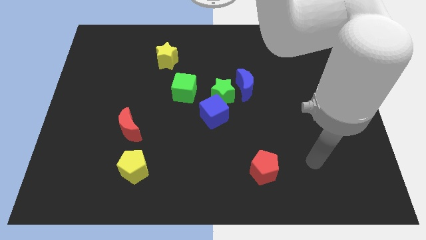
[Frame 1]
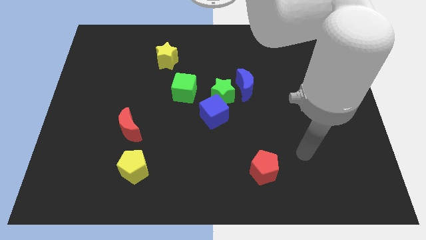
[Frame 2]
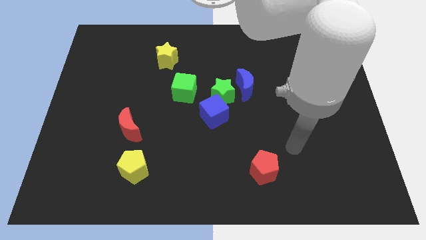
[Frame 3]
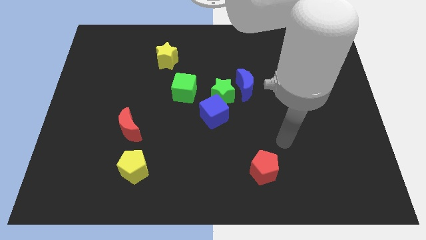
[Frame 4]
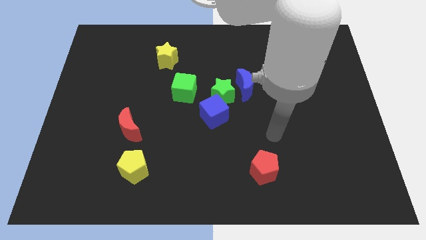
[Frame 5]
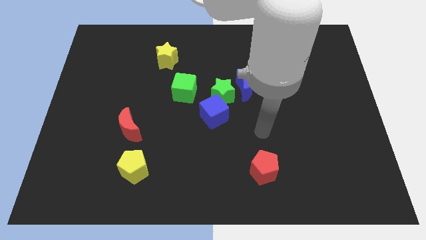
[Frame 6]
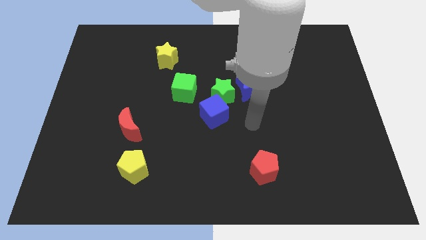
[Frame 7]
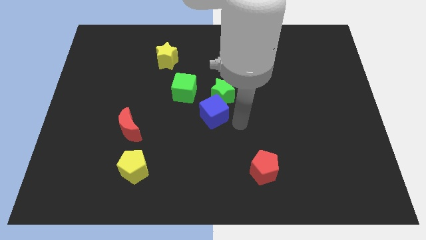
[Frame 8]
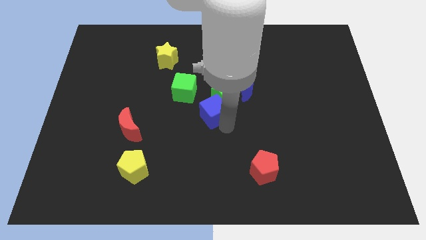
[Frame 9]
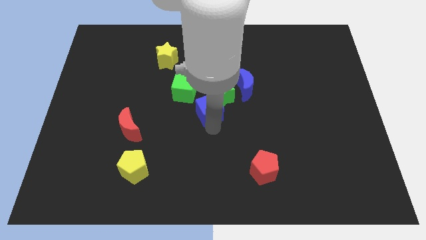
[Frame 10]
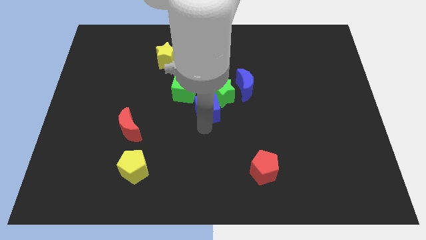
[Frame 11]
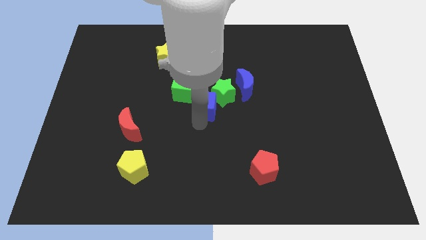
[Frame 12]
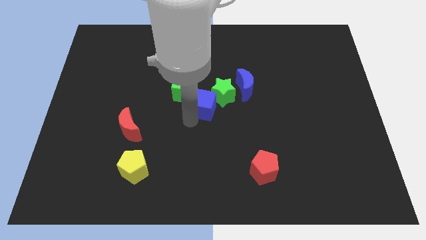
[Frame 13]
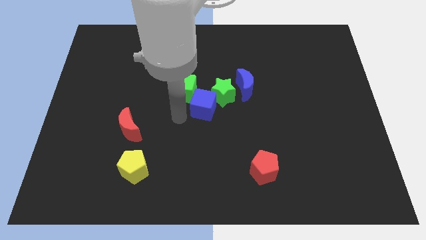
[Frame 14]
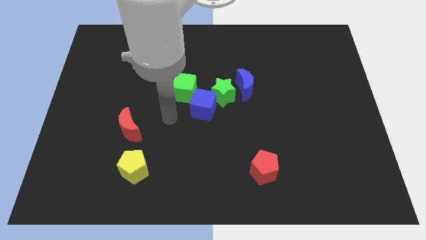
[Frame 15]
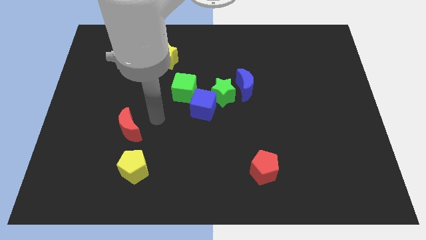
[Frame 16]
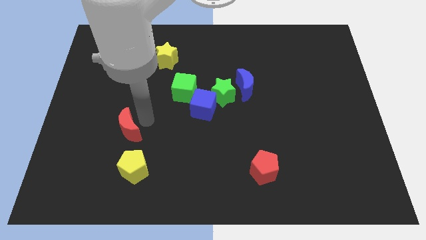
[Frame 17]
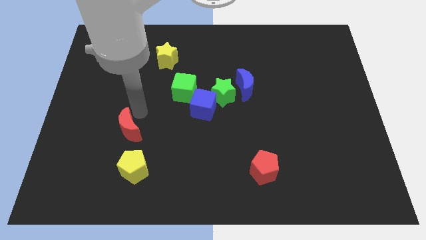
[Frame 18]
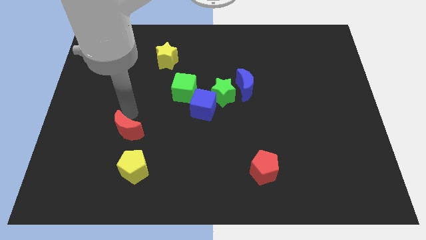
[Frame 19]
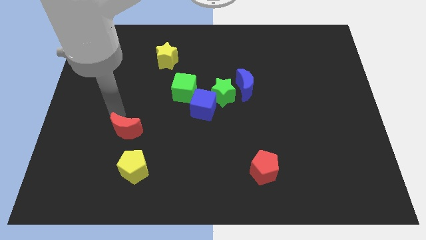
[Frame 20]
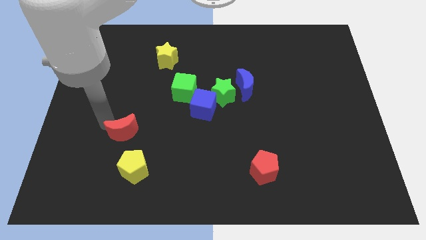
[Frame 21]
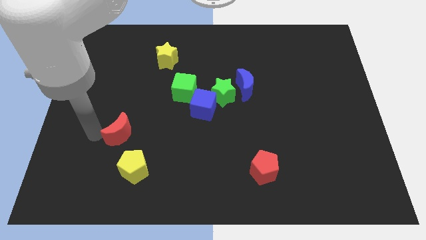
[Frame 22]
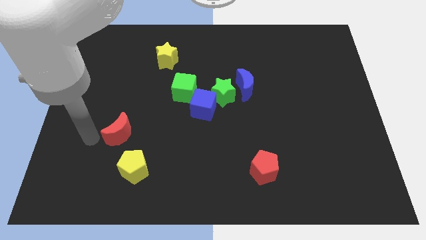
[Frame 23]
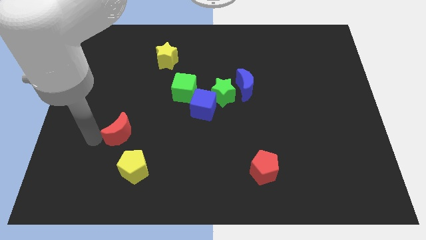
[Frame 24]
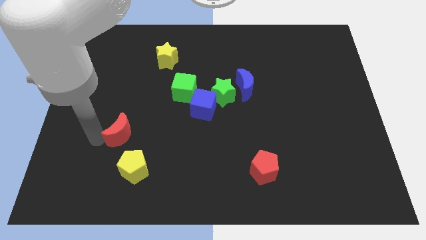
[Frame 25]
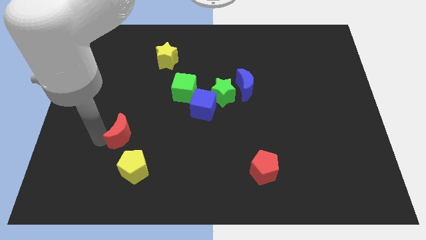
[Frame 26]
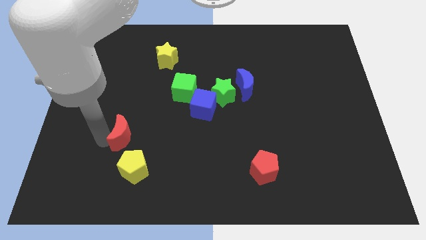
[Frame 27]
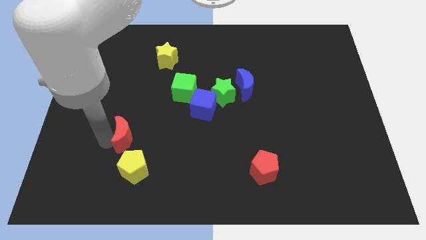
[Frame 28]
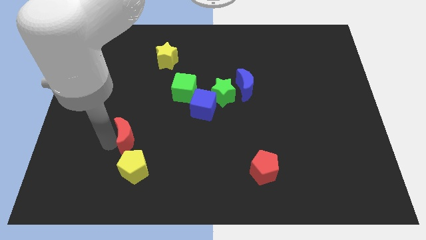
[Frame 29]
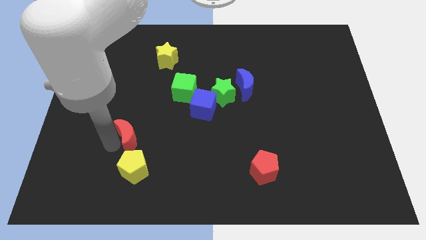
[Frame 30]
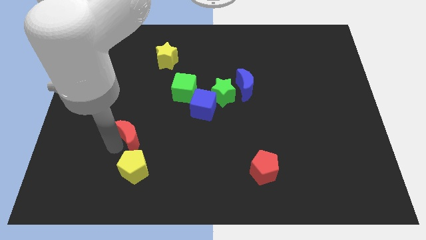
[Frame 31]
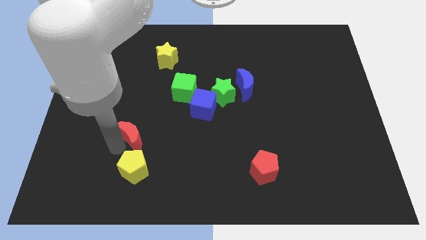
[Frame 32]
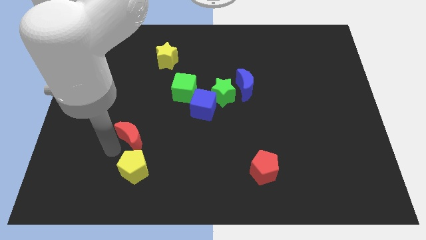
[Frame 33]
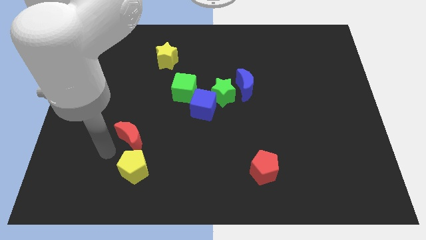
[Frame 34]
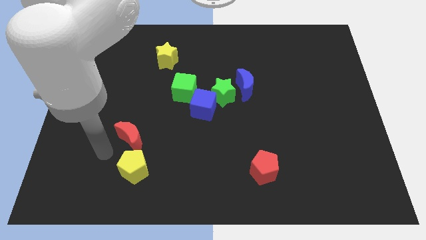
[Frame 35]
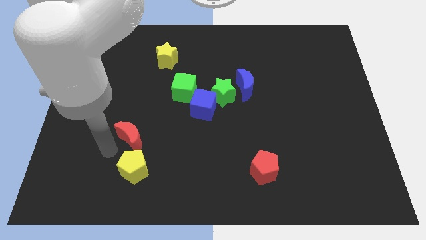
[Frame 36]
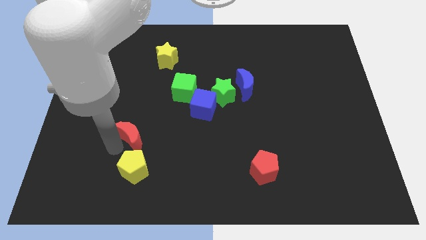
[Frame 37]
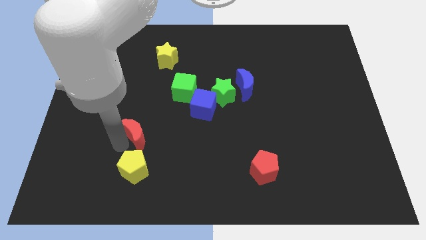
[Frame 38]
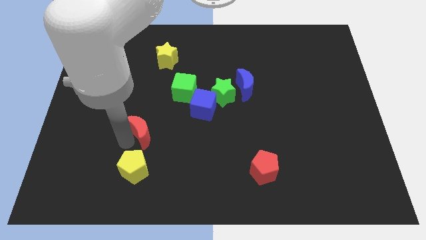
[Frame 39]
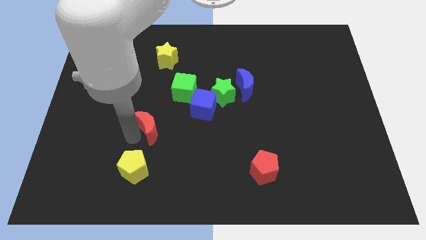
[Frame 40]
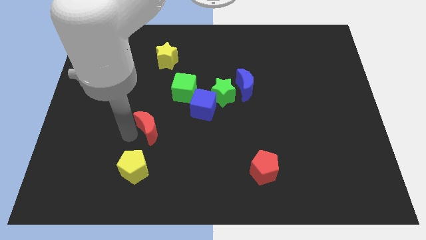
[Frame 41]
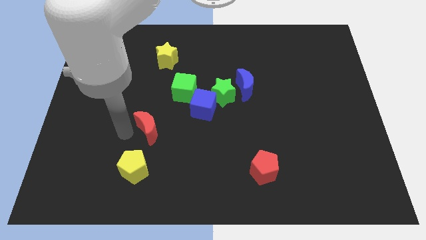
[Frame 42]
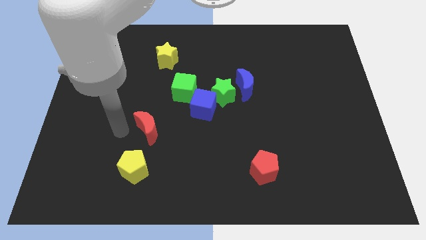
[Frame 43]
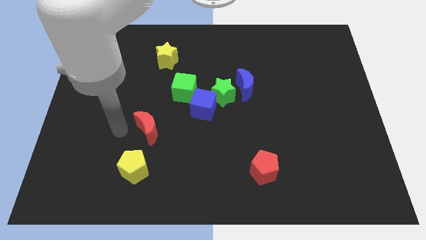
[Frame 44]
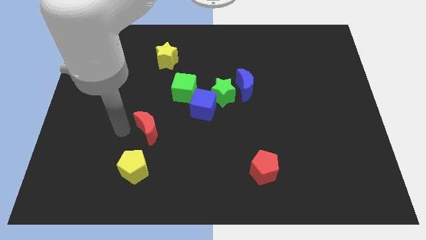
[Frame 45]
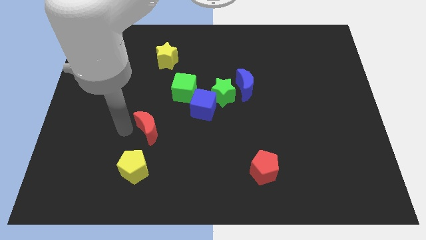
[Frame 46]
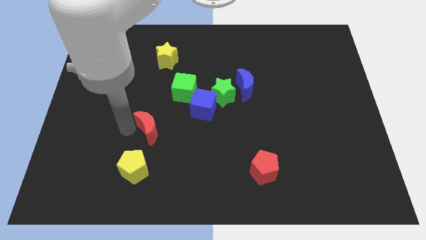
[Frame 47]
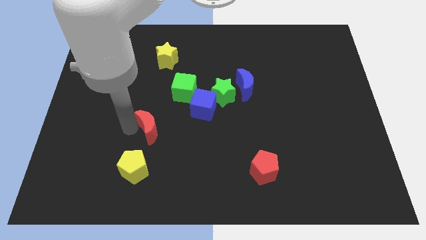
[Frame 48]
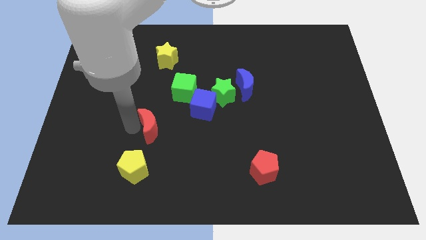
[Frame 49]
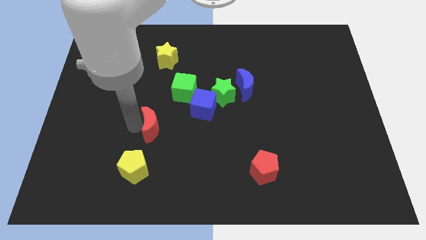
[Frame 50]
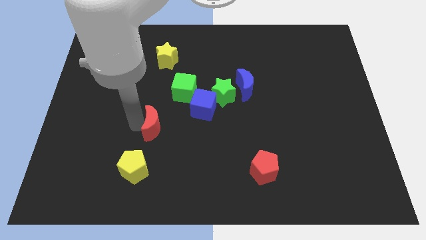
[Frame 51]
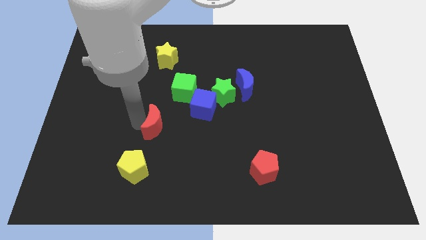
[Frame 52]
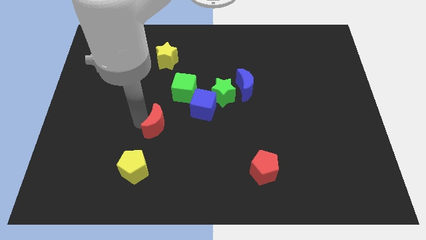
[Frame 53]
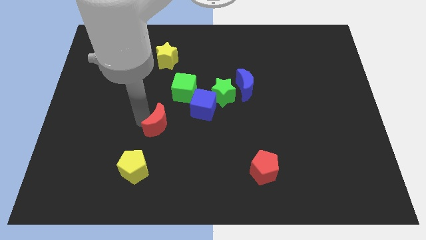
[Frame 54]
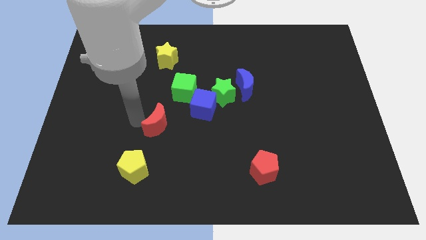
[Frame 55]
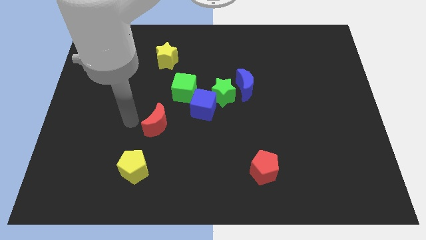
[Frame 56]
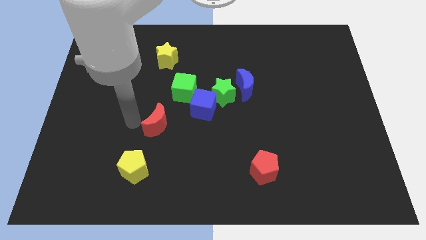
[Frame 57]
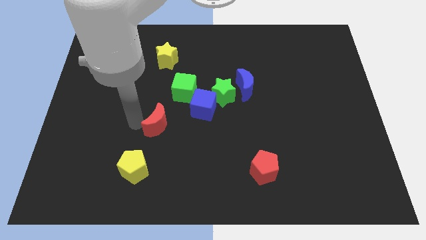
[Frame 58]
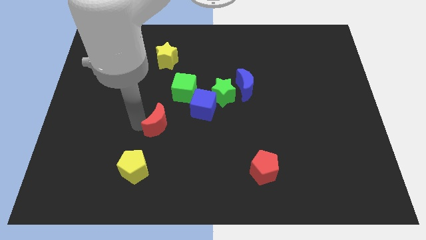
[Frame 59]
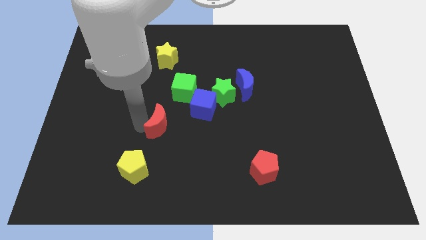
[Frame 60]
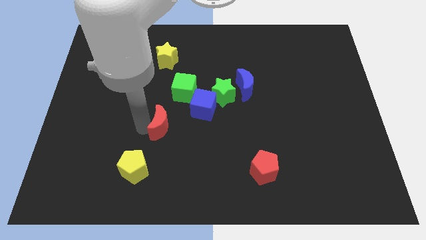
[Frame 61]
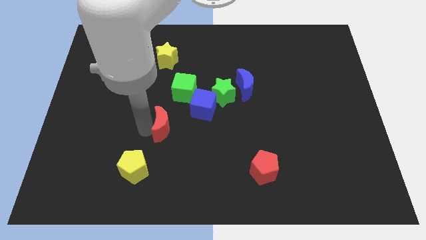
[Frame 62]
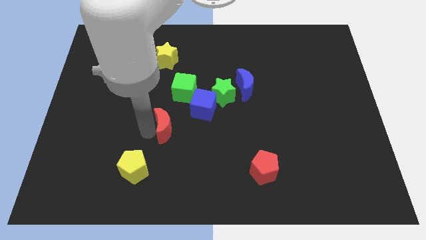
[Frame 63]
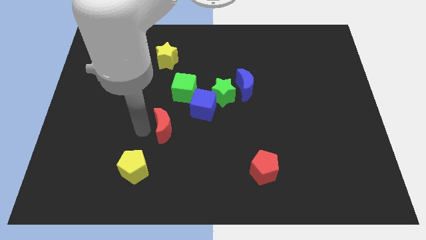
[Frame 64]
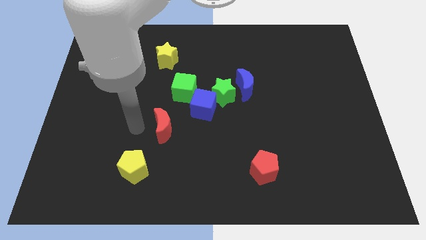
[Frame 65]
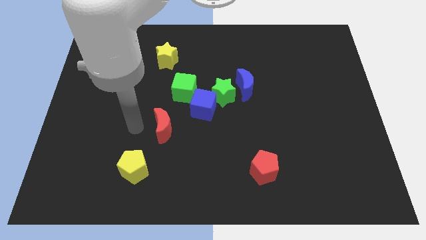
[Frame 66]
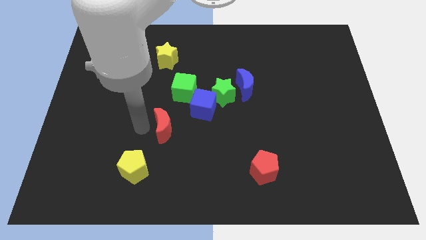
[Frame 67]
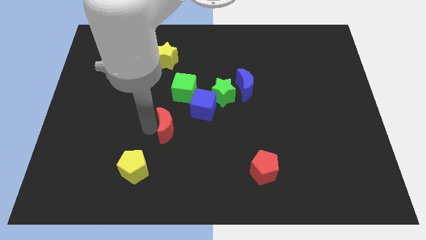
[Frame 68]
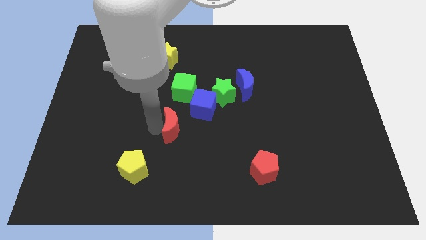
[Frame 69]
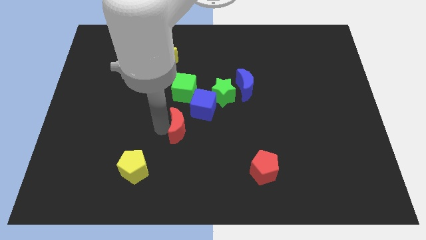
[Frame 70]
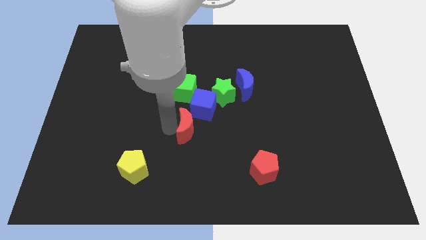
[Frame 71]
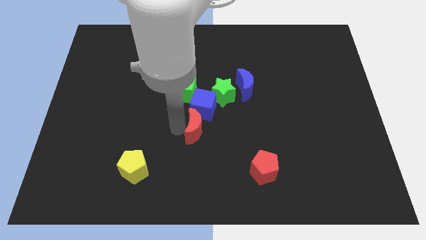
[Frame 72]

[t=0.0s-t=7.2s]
push the red moon to the bottom left of the green star
